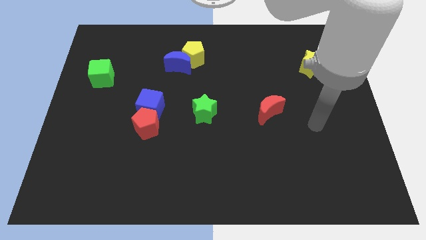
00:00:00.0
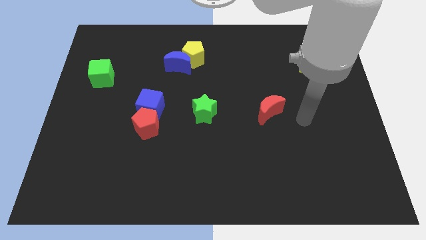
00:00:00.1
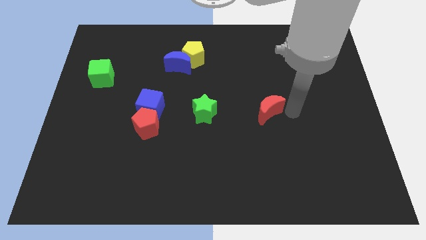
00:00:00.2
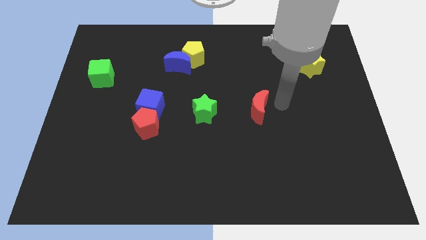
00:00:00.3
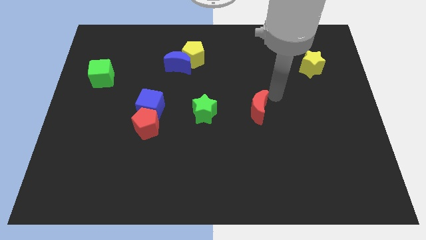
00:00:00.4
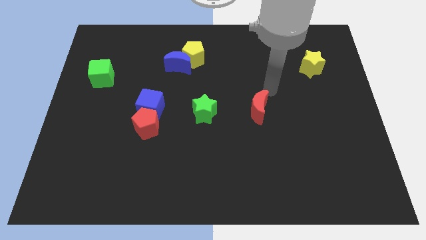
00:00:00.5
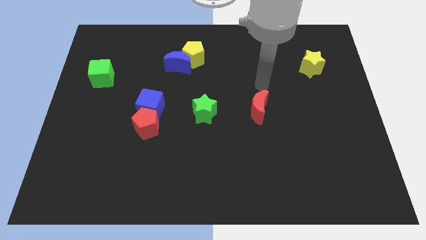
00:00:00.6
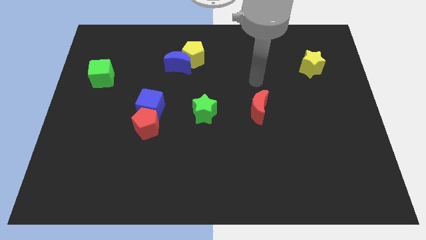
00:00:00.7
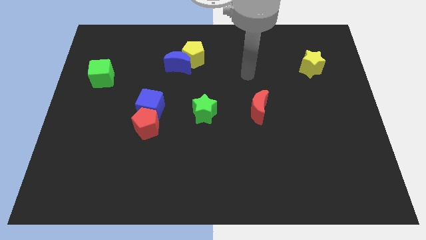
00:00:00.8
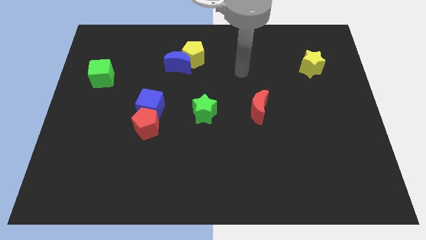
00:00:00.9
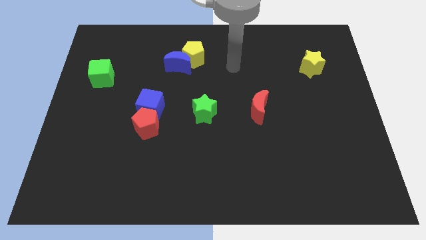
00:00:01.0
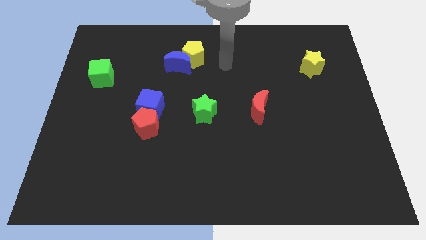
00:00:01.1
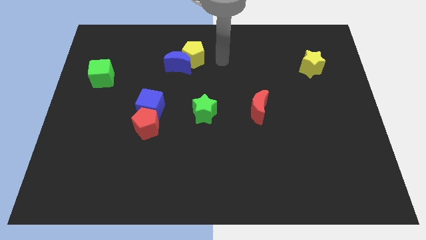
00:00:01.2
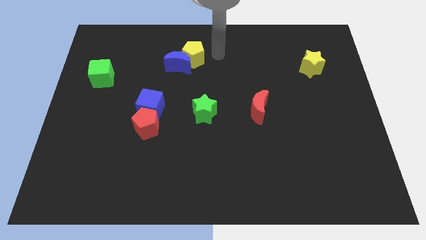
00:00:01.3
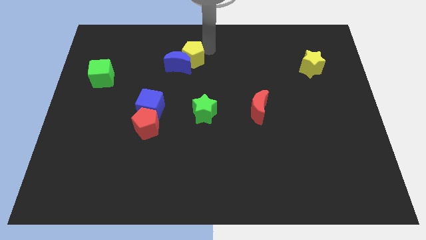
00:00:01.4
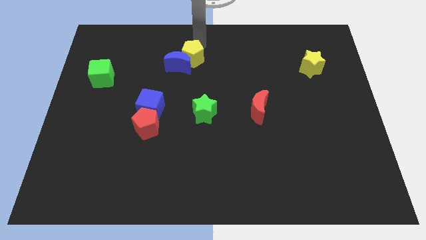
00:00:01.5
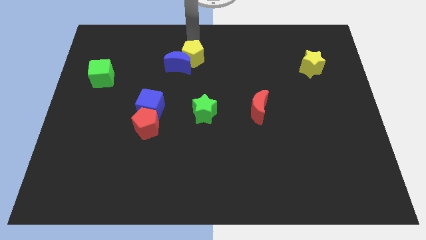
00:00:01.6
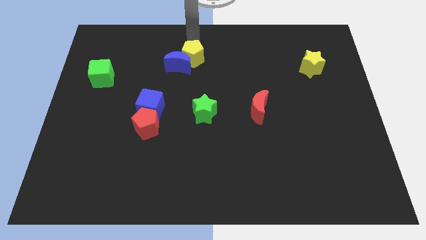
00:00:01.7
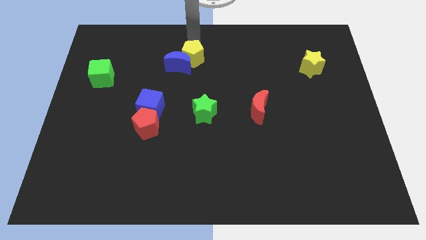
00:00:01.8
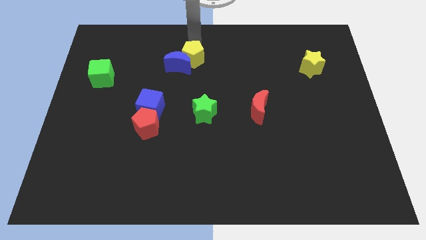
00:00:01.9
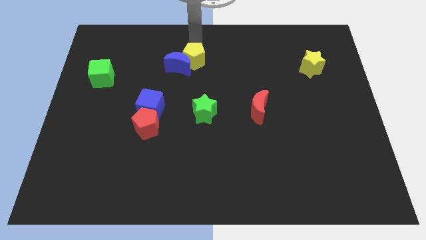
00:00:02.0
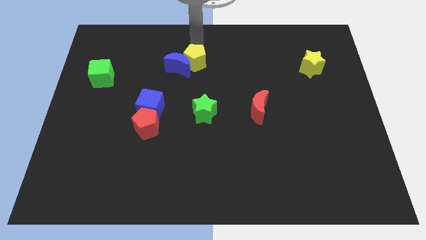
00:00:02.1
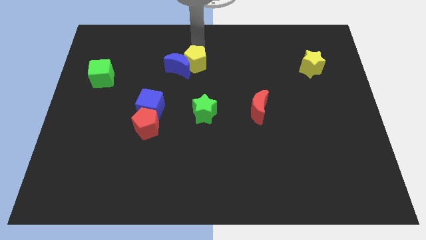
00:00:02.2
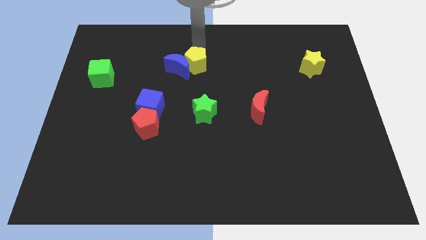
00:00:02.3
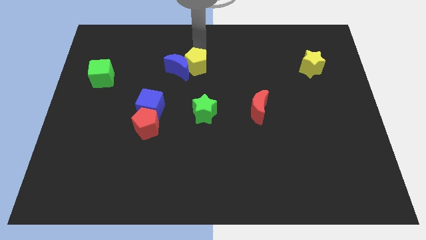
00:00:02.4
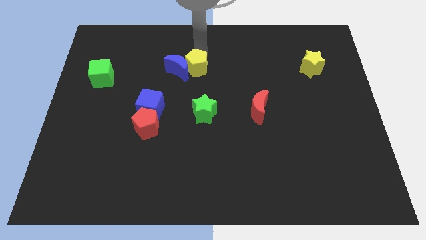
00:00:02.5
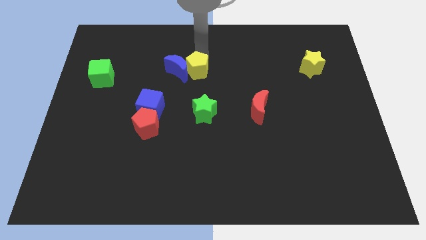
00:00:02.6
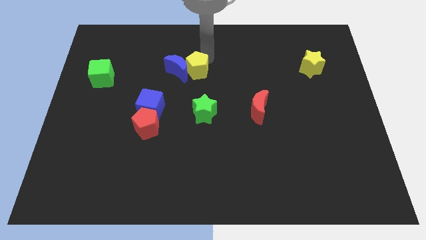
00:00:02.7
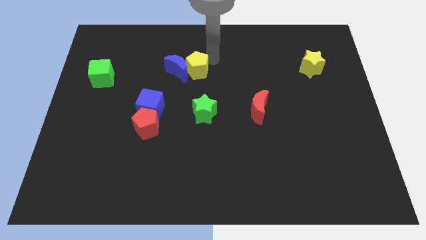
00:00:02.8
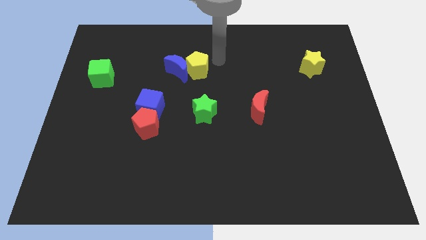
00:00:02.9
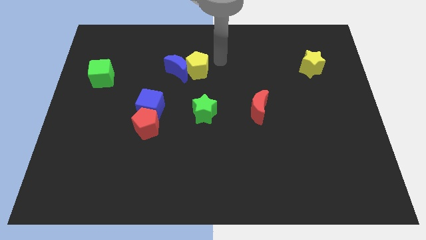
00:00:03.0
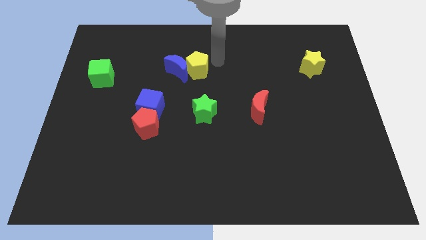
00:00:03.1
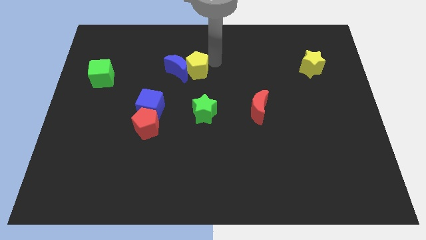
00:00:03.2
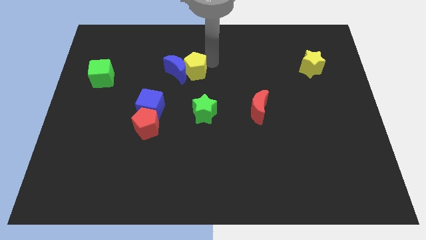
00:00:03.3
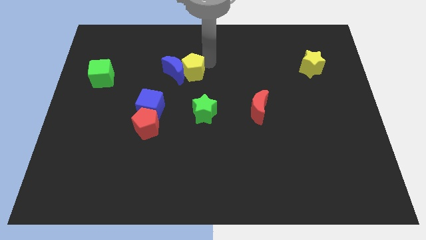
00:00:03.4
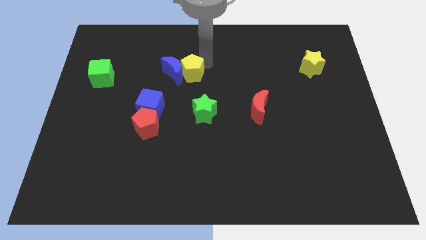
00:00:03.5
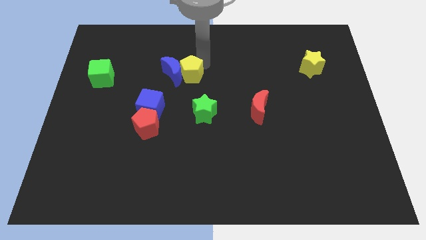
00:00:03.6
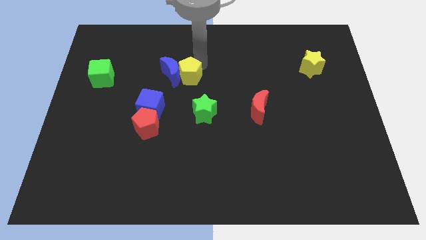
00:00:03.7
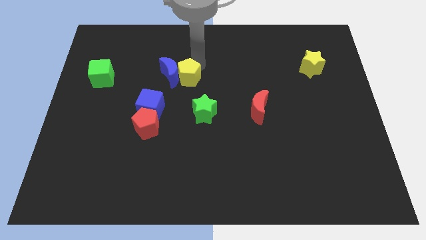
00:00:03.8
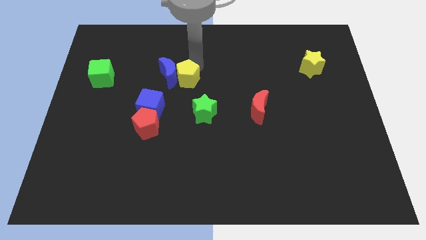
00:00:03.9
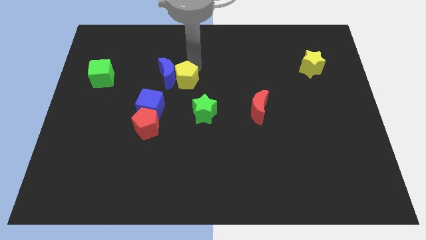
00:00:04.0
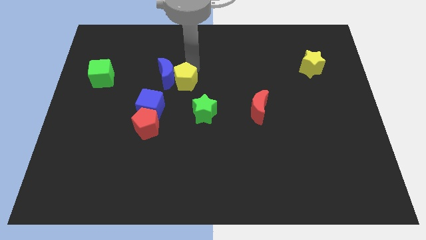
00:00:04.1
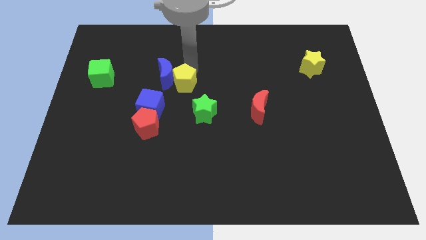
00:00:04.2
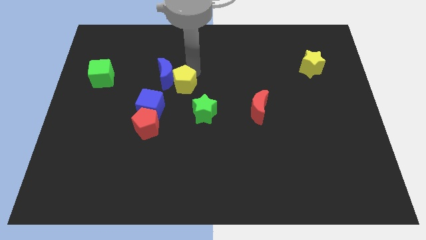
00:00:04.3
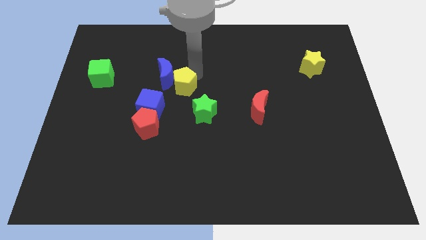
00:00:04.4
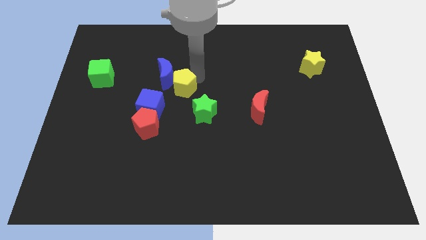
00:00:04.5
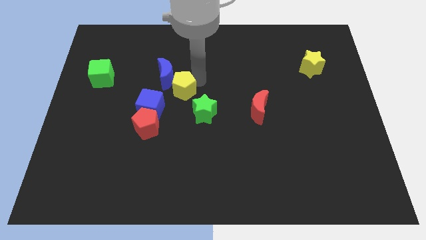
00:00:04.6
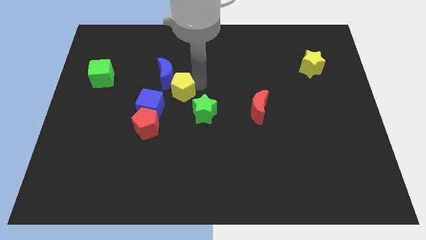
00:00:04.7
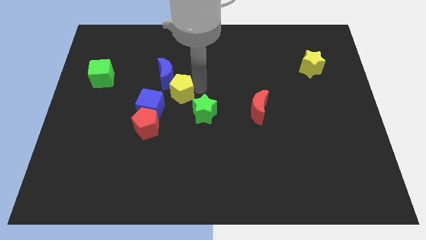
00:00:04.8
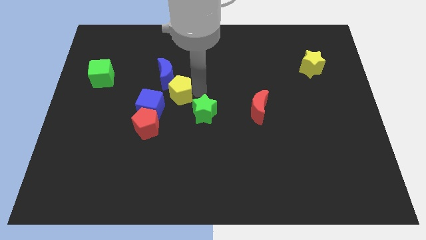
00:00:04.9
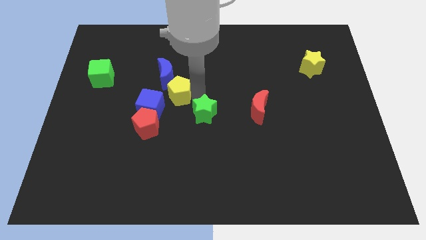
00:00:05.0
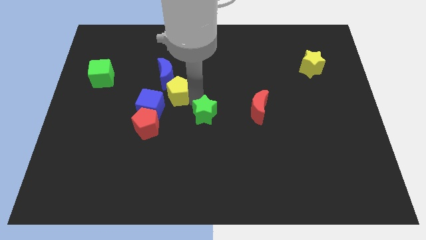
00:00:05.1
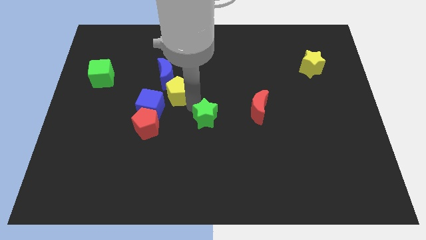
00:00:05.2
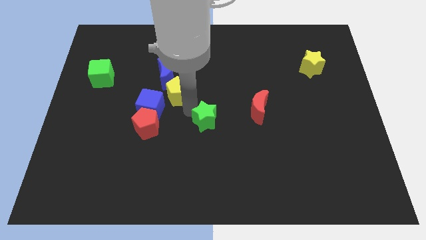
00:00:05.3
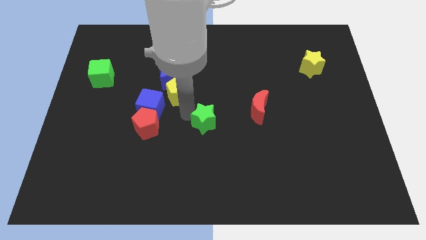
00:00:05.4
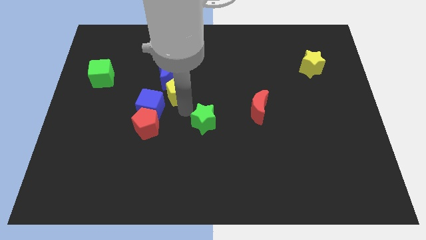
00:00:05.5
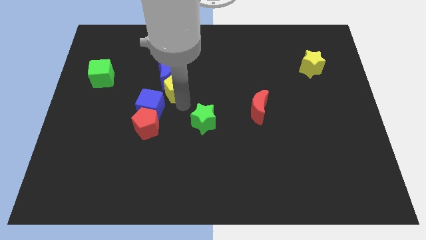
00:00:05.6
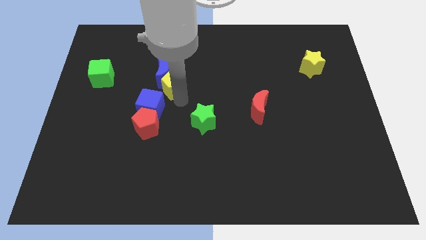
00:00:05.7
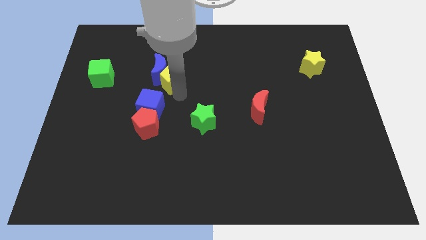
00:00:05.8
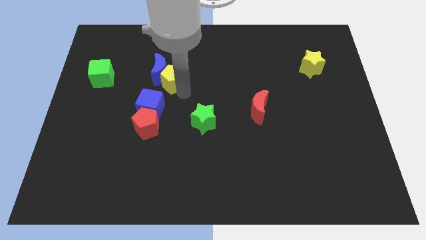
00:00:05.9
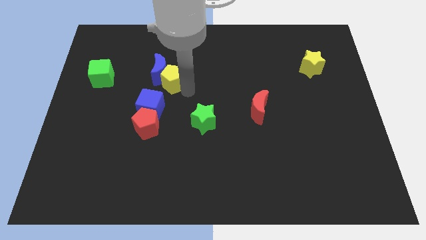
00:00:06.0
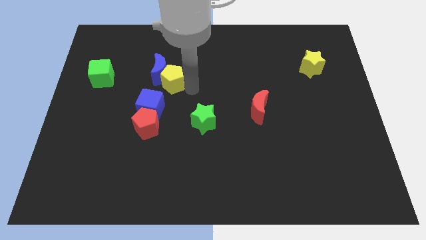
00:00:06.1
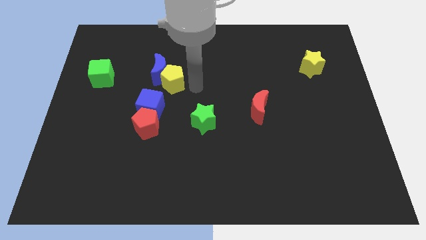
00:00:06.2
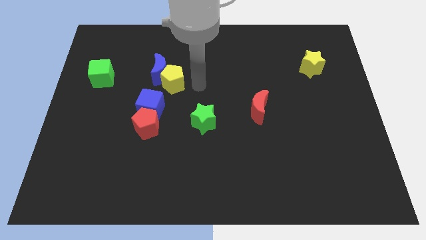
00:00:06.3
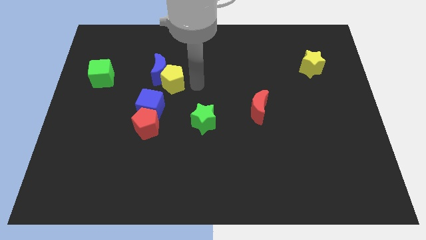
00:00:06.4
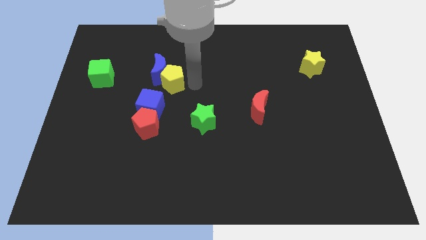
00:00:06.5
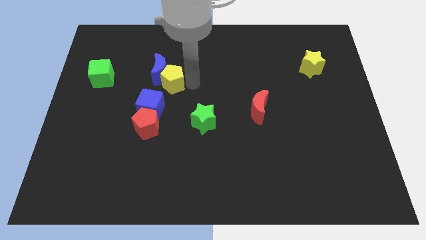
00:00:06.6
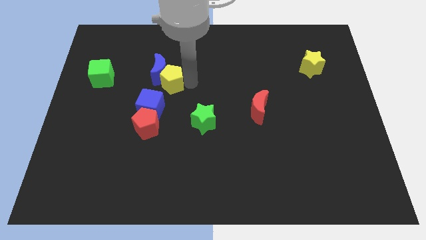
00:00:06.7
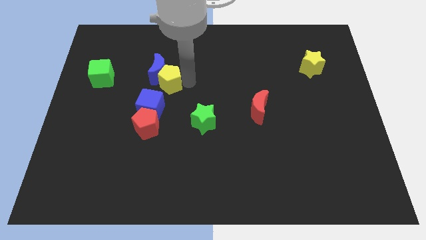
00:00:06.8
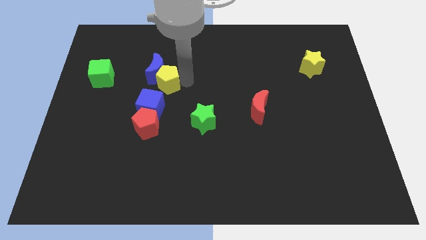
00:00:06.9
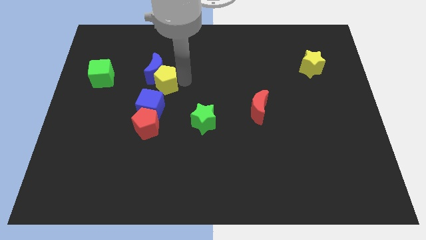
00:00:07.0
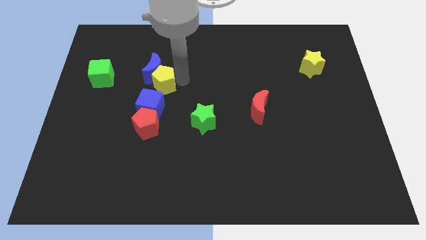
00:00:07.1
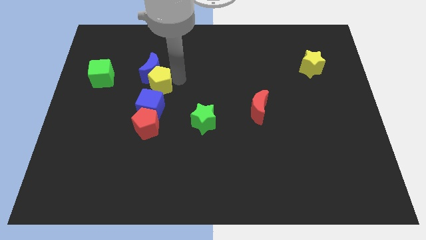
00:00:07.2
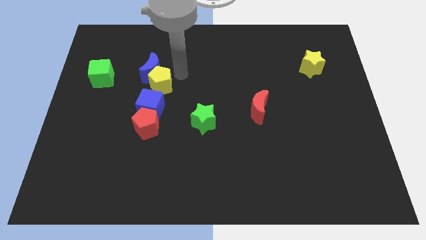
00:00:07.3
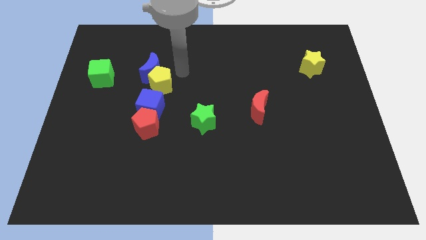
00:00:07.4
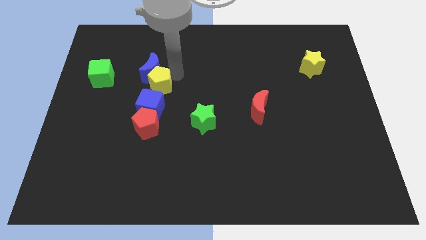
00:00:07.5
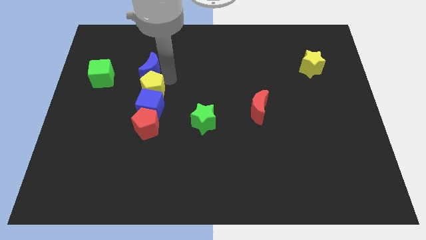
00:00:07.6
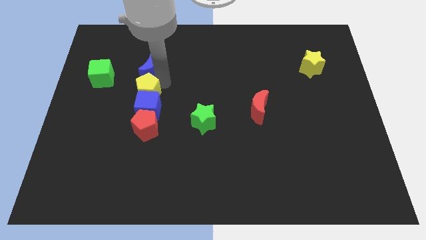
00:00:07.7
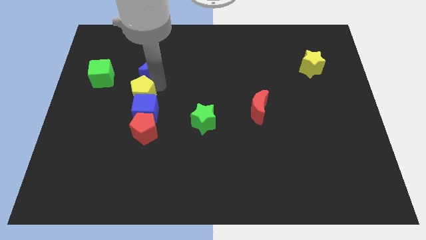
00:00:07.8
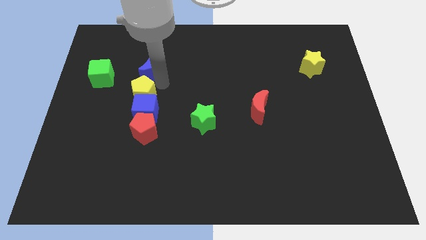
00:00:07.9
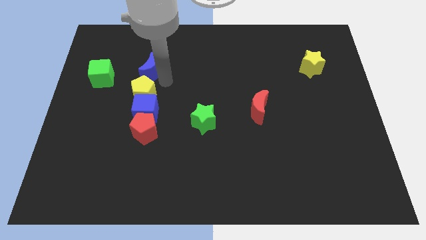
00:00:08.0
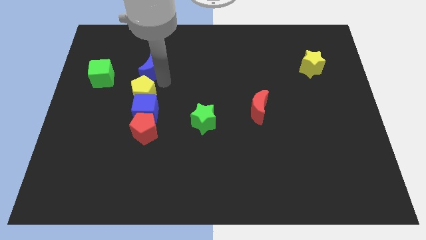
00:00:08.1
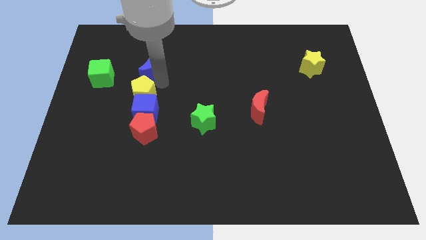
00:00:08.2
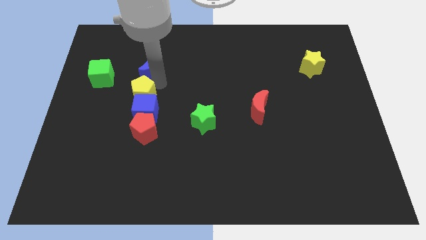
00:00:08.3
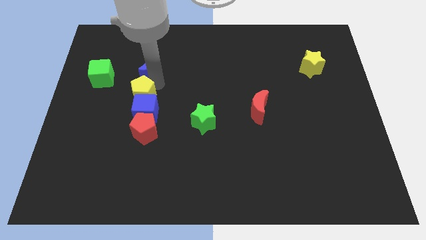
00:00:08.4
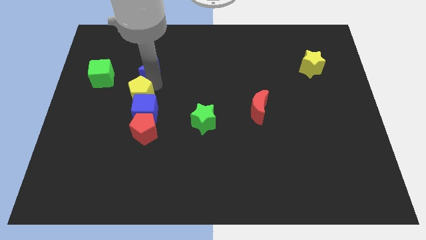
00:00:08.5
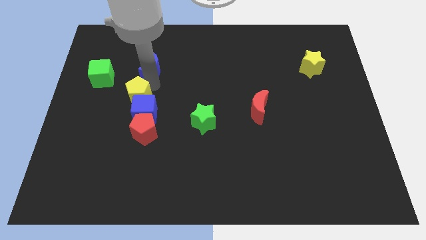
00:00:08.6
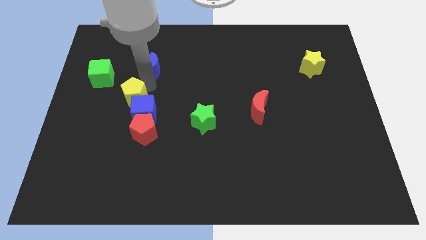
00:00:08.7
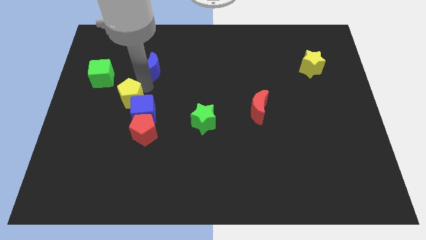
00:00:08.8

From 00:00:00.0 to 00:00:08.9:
move the yellow pentagon downwards and then left
